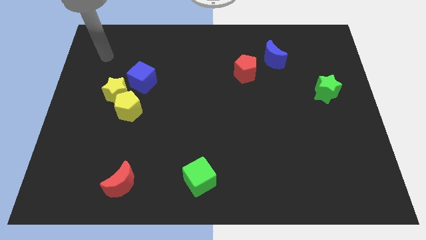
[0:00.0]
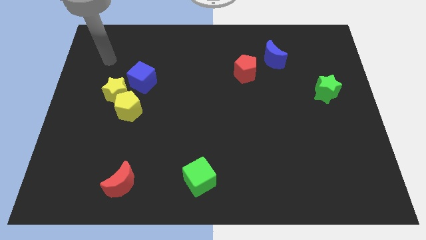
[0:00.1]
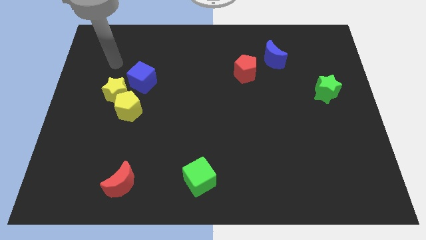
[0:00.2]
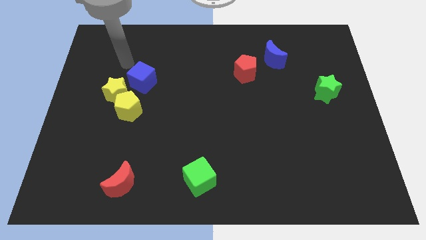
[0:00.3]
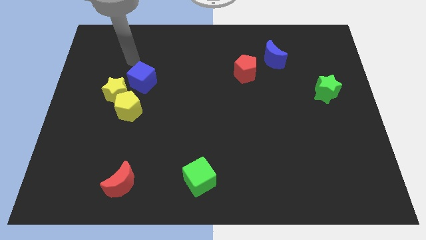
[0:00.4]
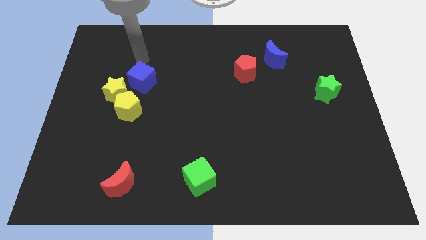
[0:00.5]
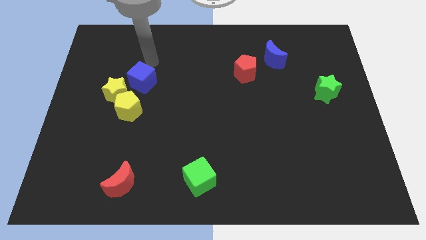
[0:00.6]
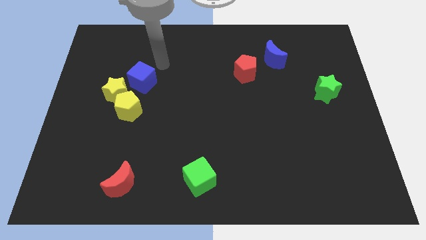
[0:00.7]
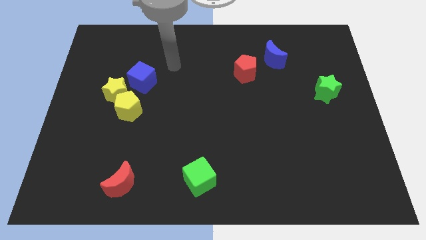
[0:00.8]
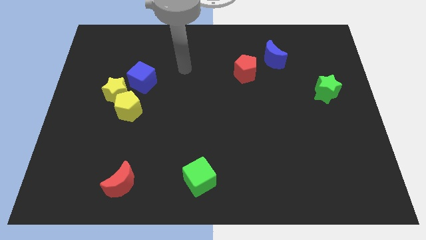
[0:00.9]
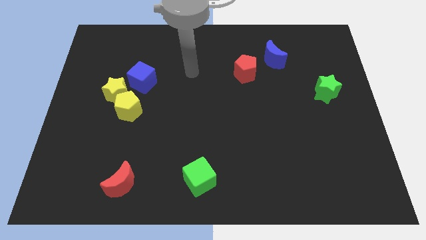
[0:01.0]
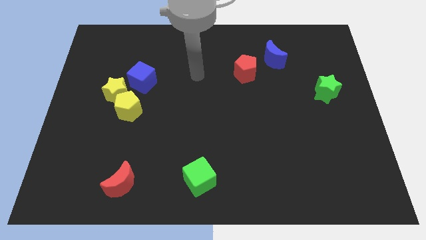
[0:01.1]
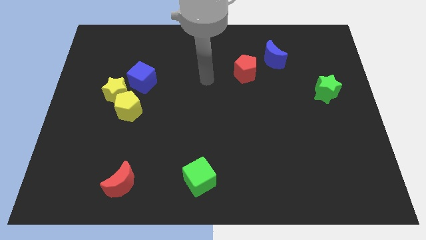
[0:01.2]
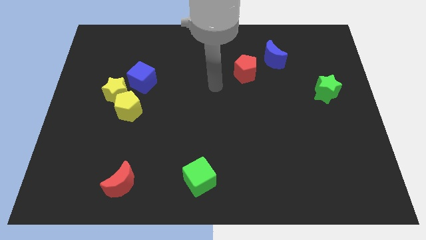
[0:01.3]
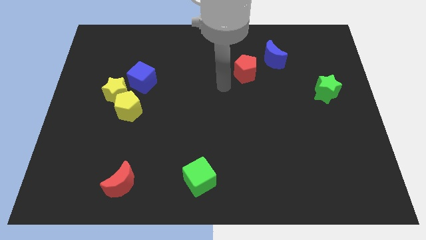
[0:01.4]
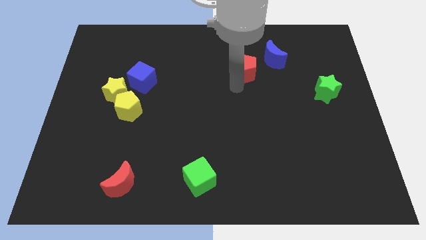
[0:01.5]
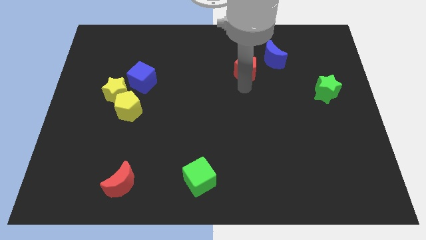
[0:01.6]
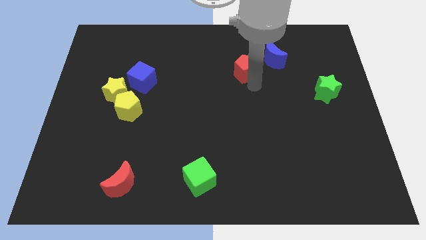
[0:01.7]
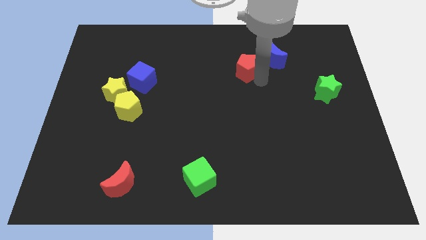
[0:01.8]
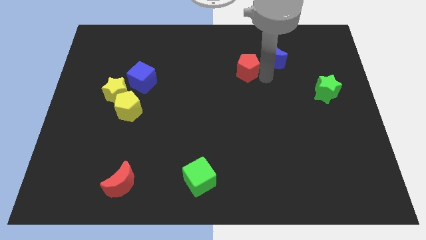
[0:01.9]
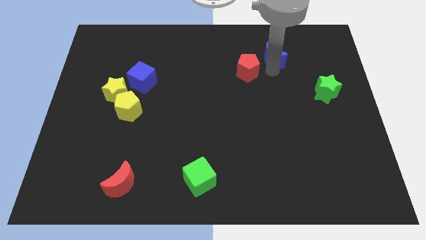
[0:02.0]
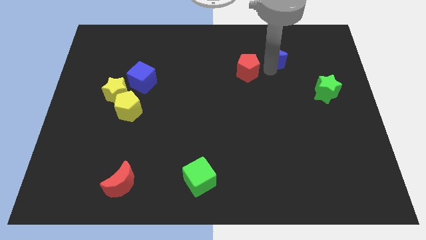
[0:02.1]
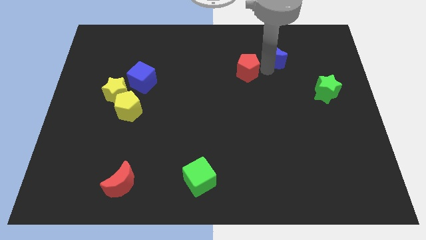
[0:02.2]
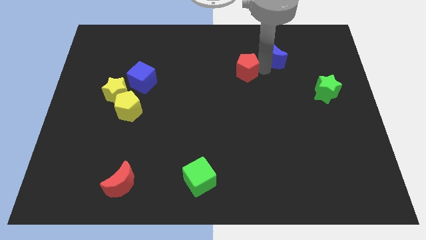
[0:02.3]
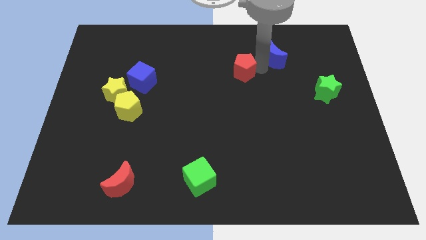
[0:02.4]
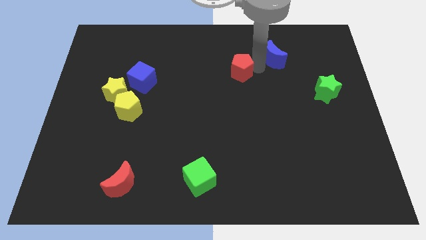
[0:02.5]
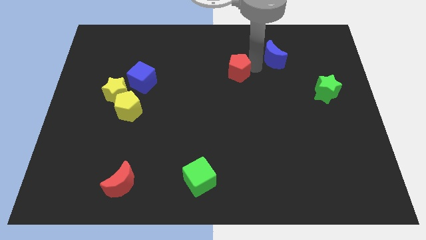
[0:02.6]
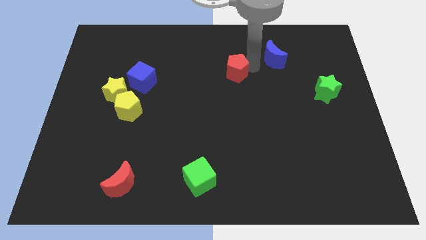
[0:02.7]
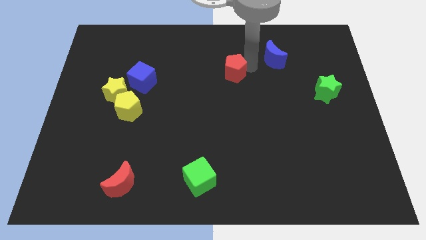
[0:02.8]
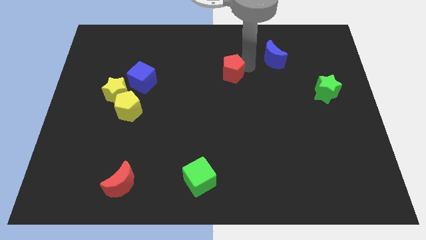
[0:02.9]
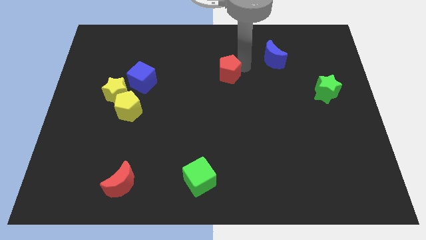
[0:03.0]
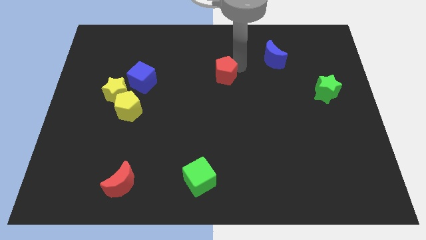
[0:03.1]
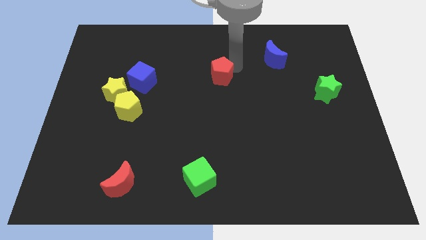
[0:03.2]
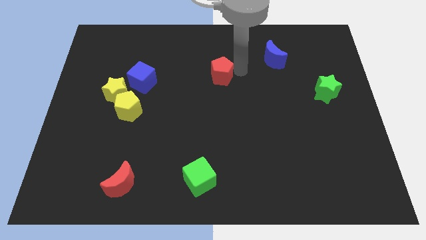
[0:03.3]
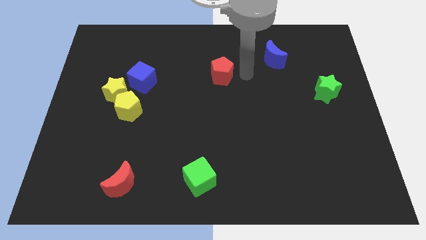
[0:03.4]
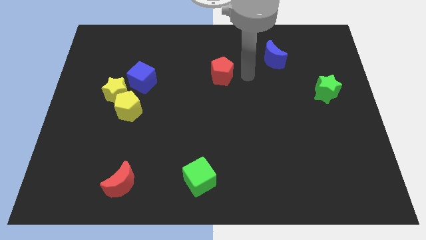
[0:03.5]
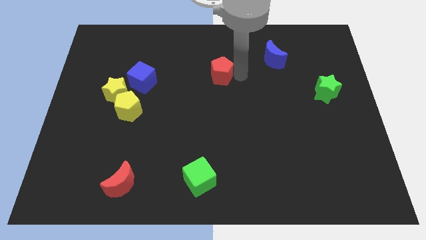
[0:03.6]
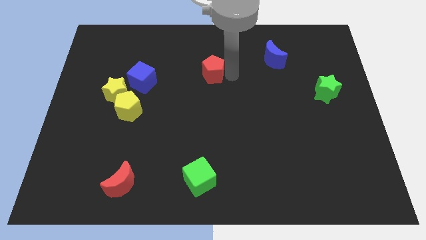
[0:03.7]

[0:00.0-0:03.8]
push the red pentagon to the left a little

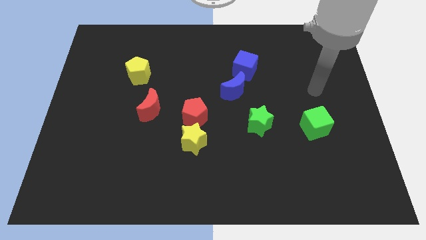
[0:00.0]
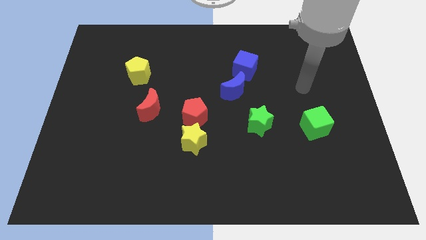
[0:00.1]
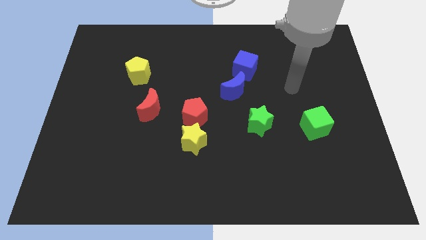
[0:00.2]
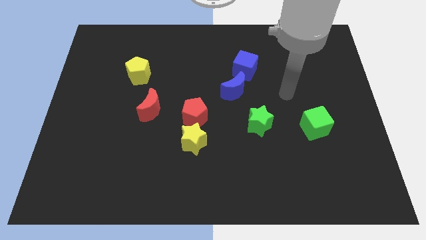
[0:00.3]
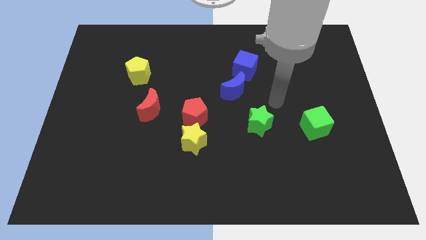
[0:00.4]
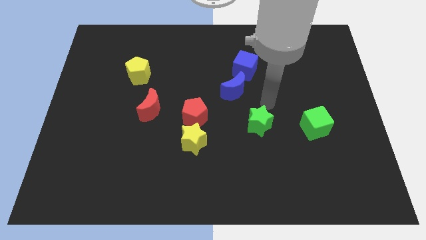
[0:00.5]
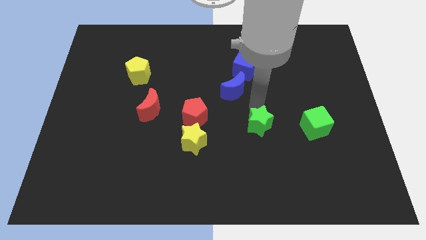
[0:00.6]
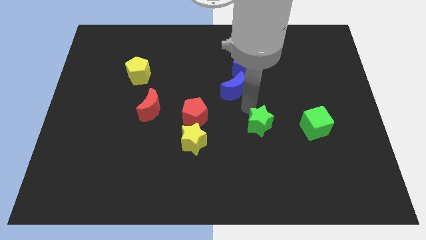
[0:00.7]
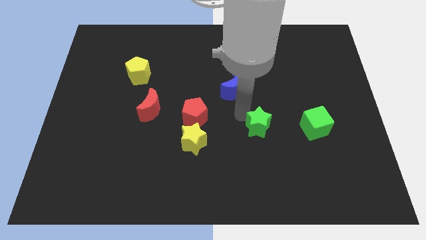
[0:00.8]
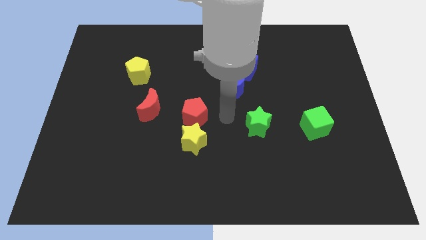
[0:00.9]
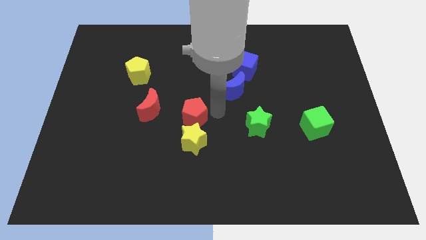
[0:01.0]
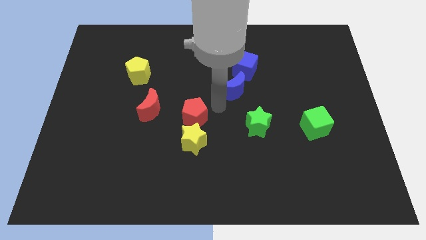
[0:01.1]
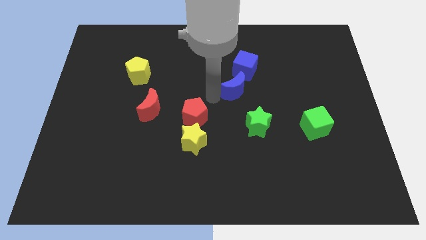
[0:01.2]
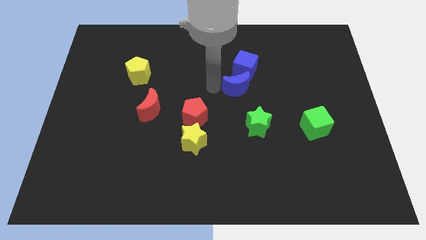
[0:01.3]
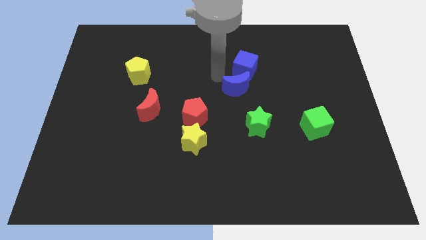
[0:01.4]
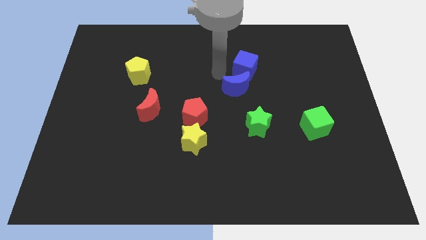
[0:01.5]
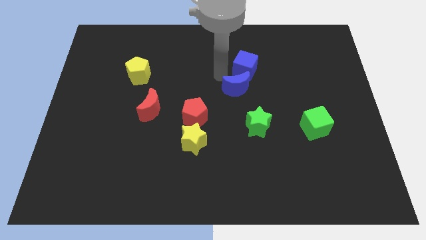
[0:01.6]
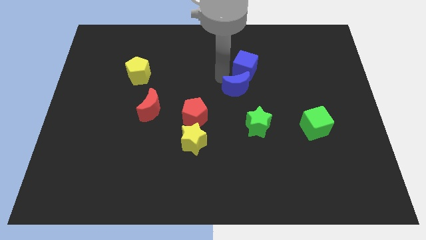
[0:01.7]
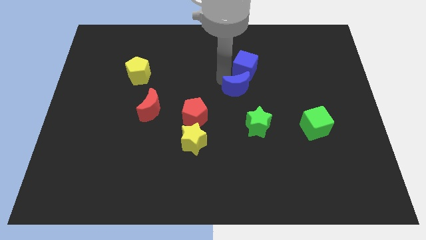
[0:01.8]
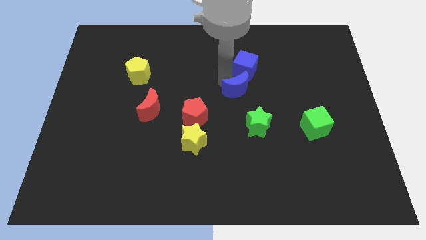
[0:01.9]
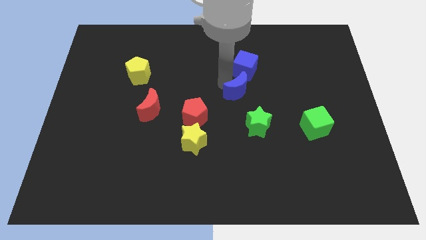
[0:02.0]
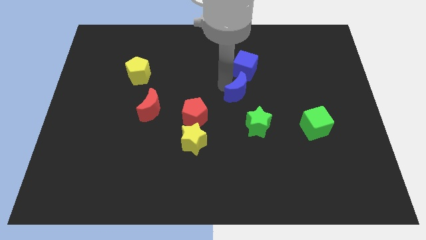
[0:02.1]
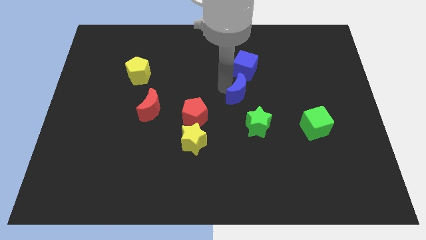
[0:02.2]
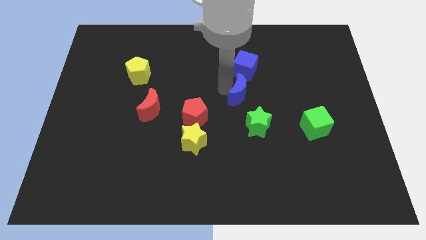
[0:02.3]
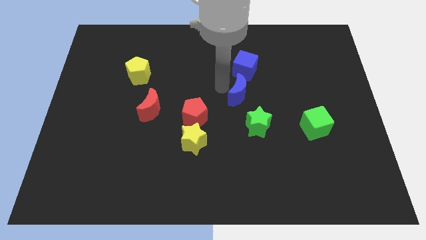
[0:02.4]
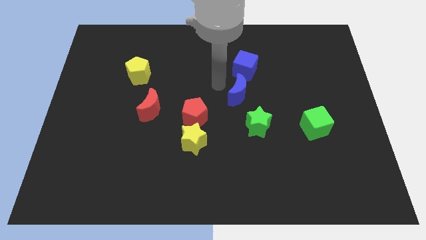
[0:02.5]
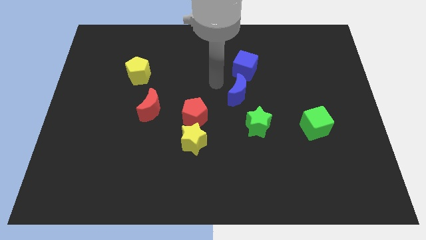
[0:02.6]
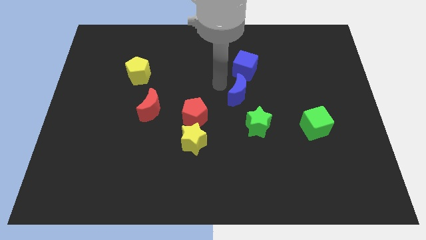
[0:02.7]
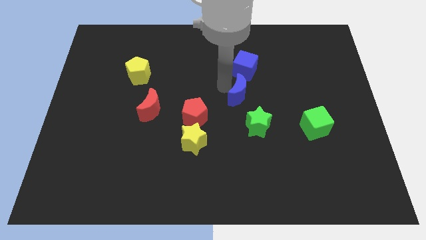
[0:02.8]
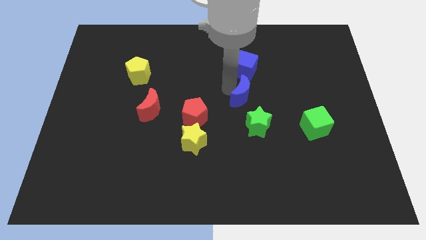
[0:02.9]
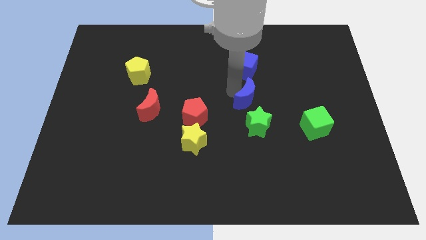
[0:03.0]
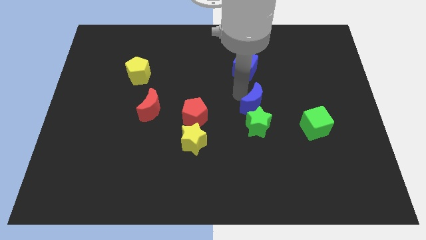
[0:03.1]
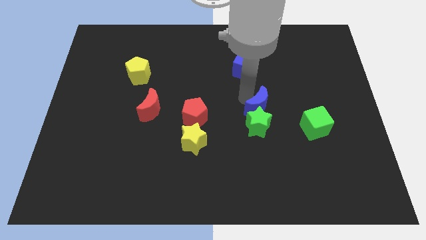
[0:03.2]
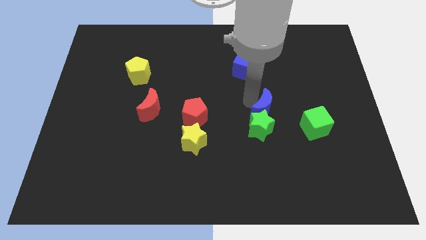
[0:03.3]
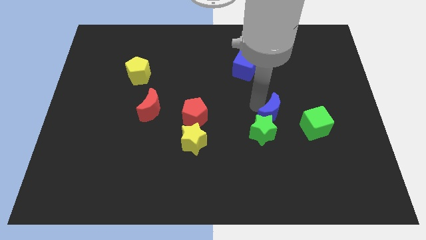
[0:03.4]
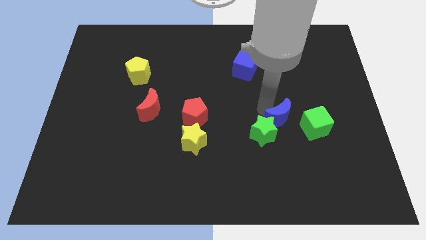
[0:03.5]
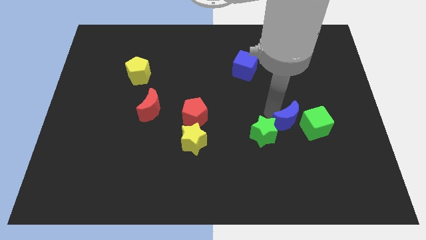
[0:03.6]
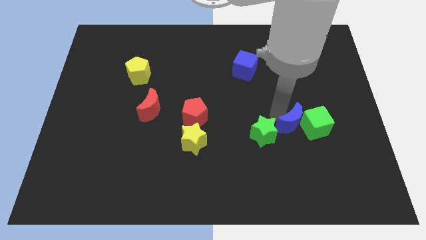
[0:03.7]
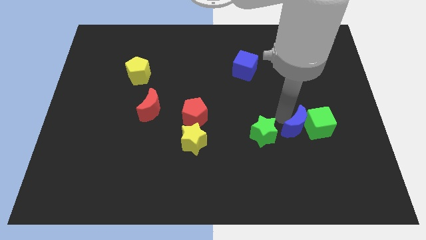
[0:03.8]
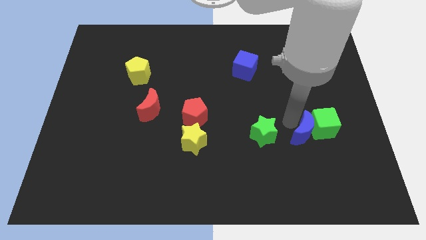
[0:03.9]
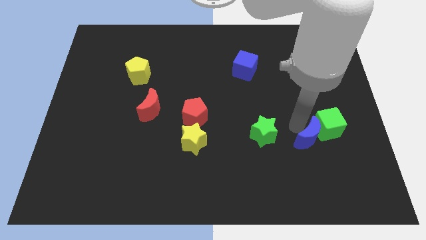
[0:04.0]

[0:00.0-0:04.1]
move the blue moon down and to the right

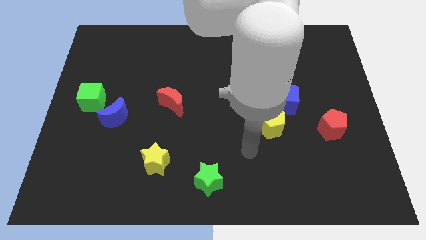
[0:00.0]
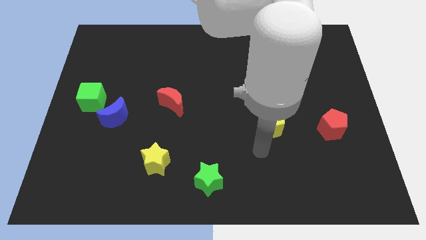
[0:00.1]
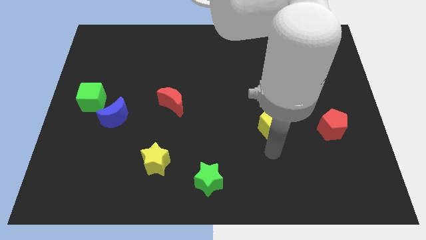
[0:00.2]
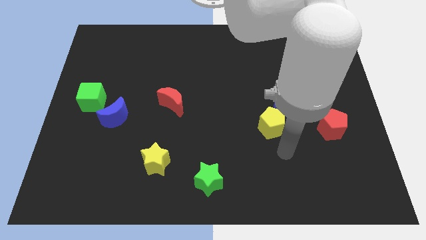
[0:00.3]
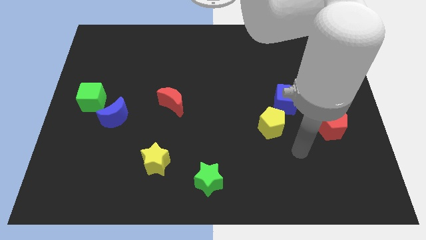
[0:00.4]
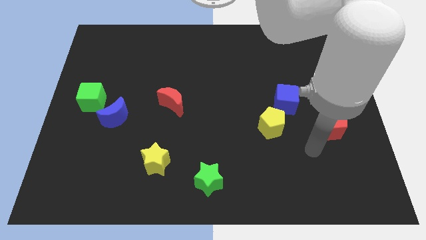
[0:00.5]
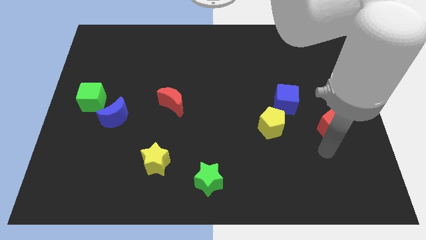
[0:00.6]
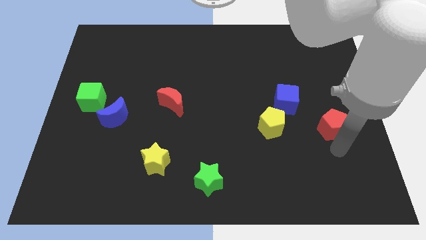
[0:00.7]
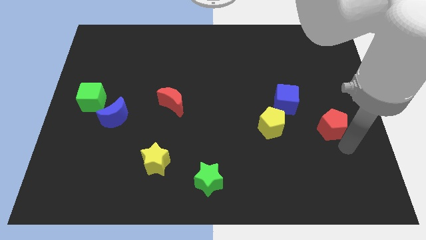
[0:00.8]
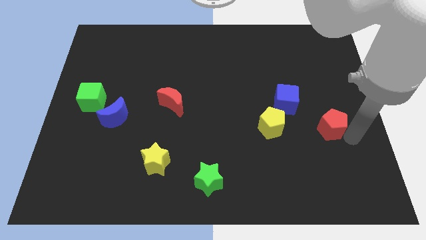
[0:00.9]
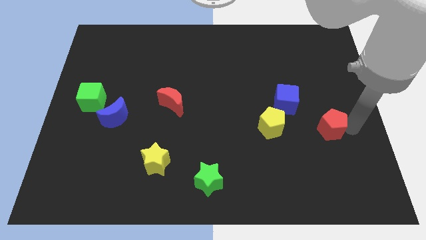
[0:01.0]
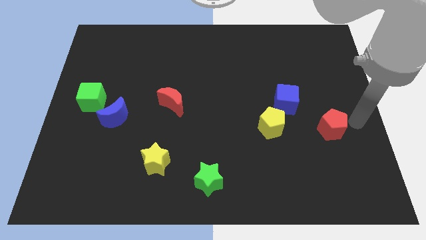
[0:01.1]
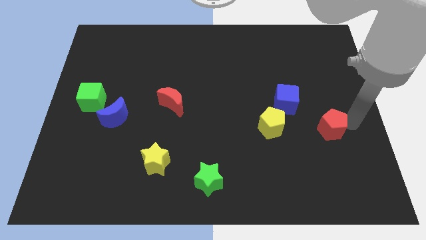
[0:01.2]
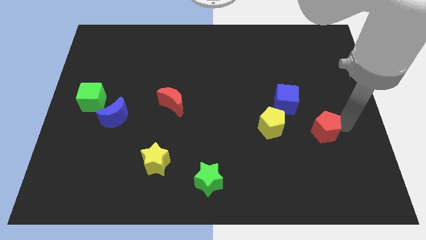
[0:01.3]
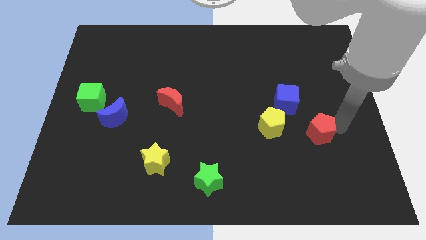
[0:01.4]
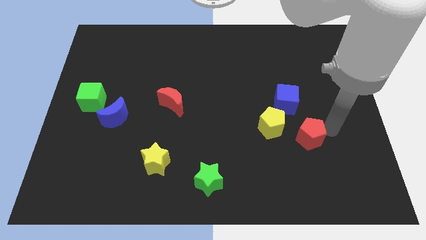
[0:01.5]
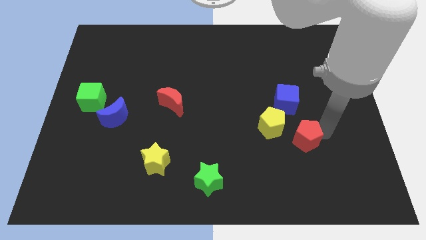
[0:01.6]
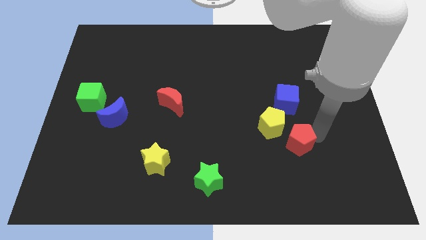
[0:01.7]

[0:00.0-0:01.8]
slide the red pentagon a bit left
